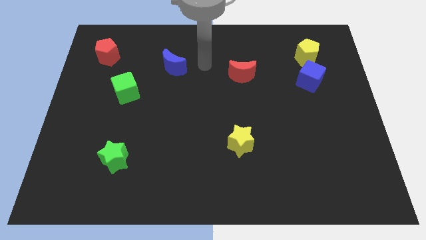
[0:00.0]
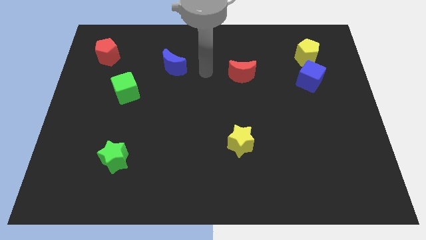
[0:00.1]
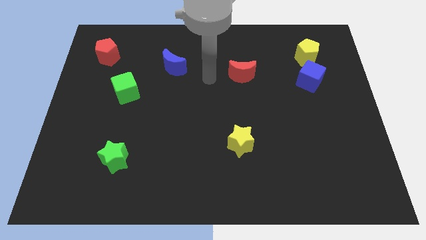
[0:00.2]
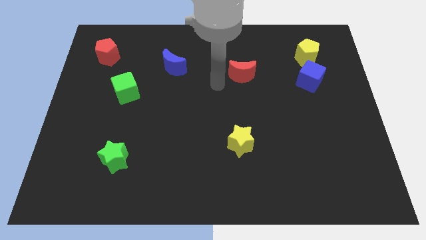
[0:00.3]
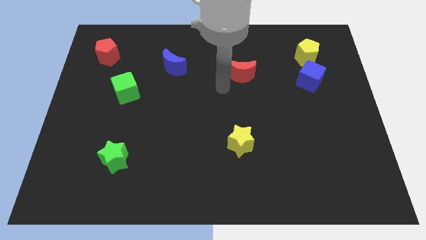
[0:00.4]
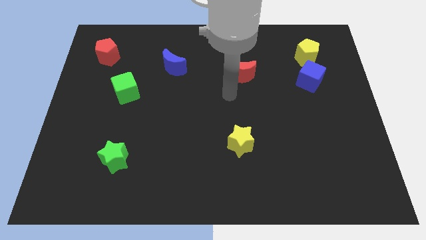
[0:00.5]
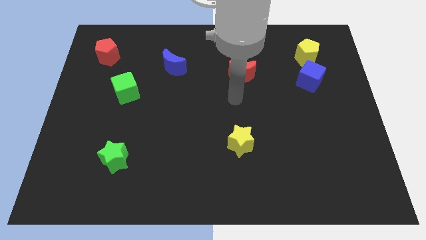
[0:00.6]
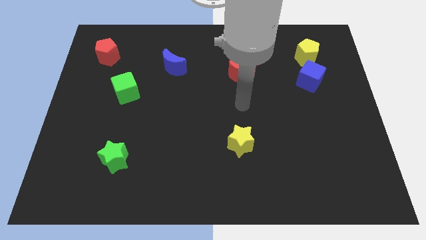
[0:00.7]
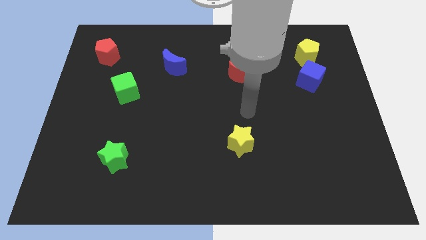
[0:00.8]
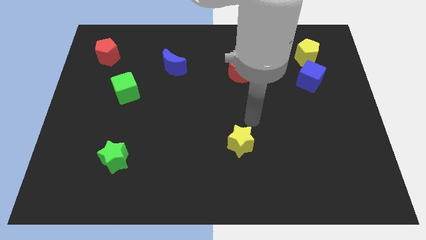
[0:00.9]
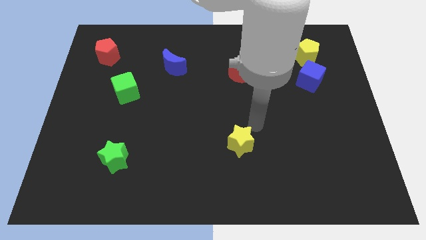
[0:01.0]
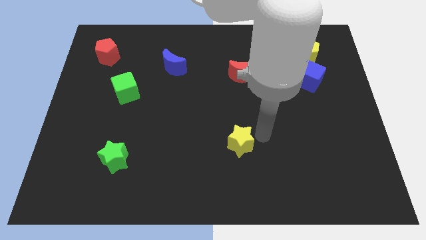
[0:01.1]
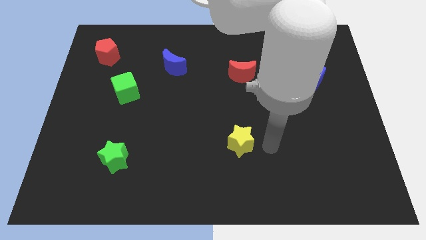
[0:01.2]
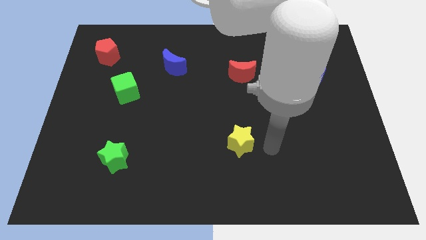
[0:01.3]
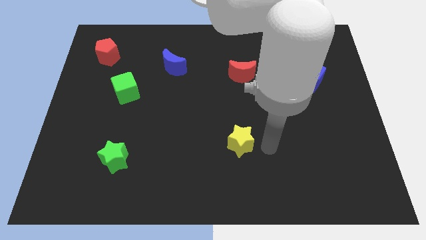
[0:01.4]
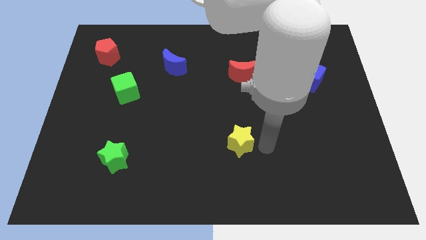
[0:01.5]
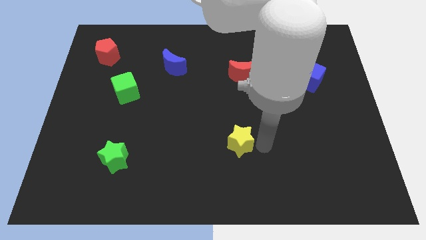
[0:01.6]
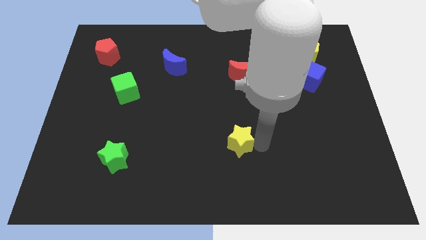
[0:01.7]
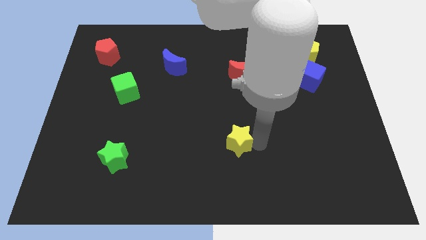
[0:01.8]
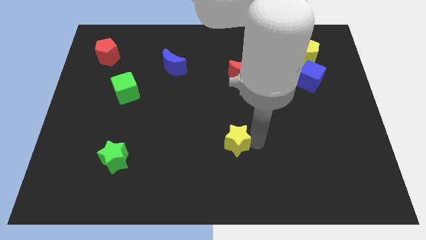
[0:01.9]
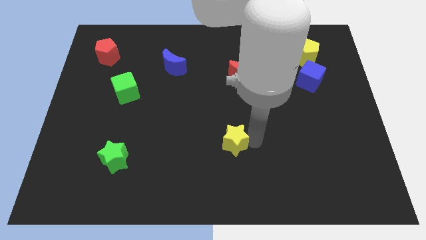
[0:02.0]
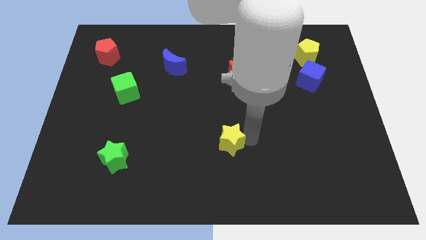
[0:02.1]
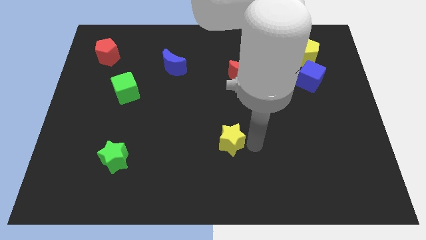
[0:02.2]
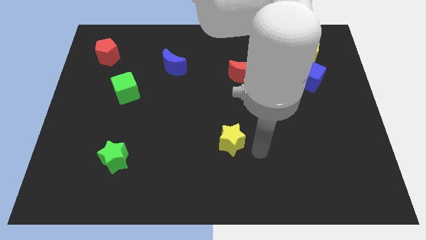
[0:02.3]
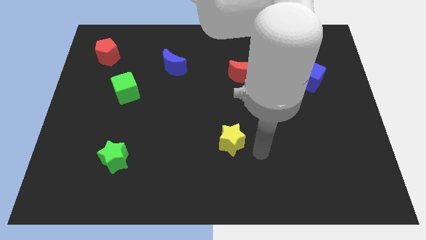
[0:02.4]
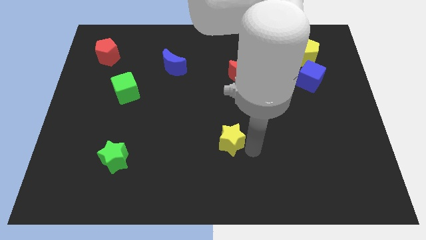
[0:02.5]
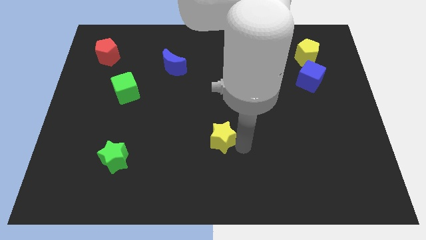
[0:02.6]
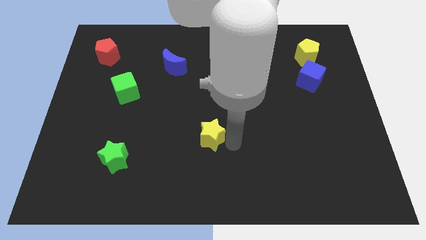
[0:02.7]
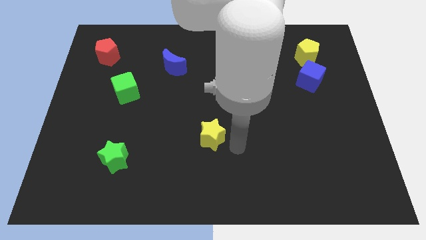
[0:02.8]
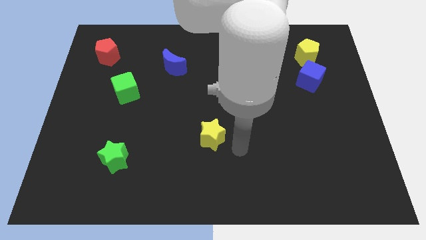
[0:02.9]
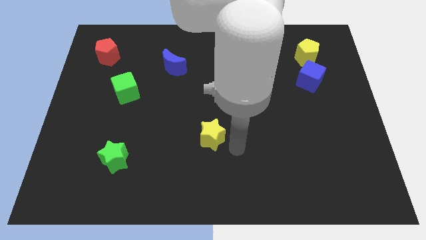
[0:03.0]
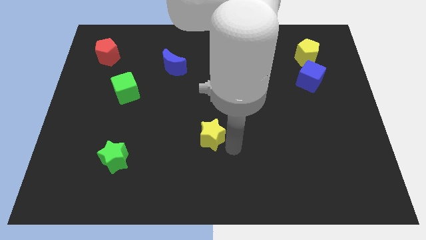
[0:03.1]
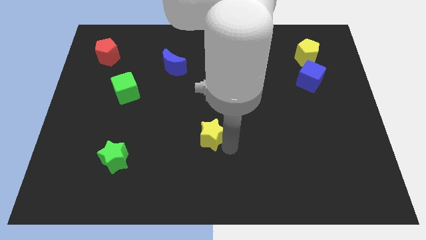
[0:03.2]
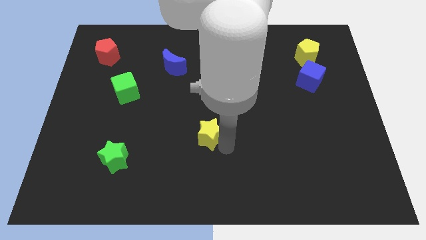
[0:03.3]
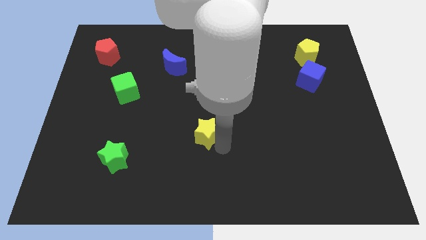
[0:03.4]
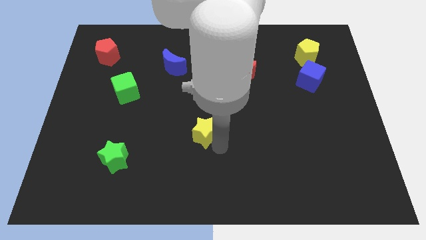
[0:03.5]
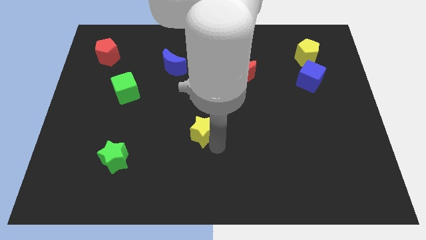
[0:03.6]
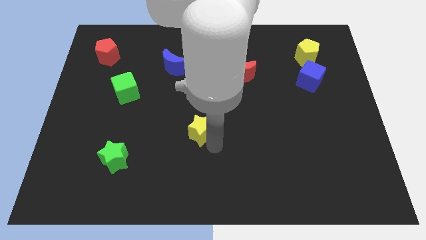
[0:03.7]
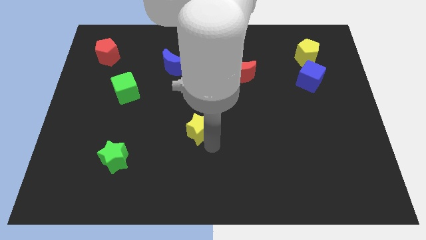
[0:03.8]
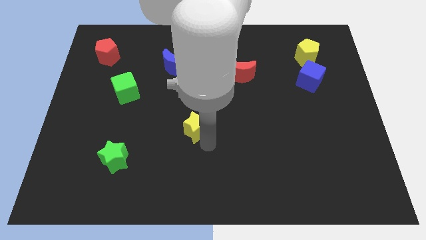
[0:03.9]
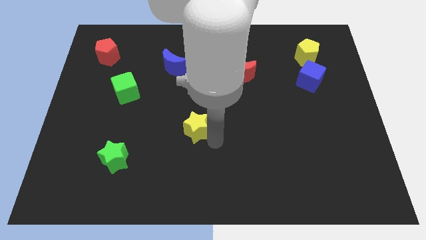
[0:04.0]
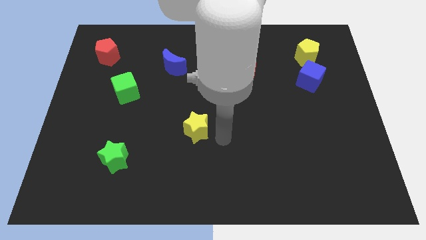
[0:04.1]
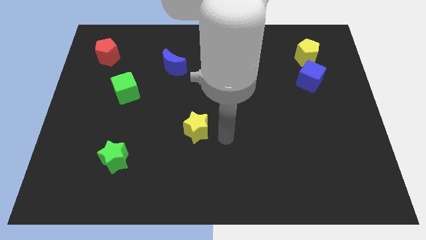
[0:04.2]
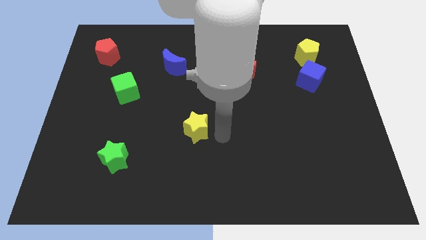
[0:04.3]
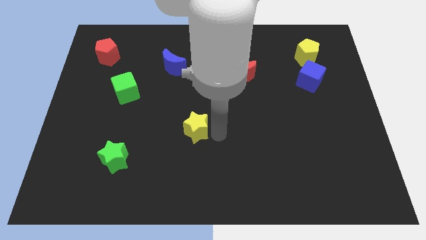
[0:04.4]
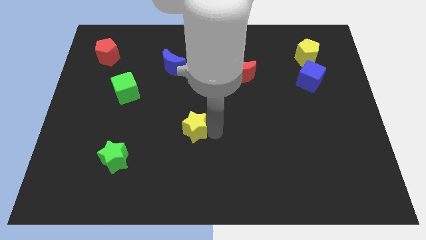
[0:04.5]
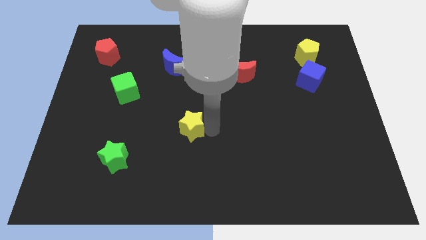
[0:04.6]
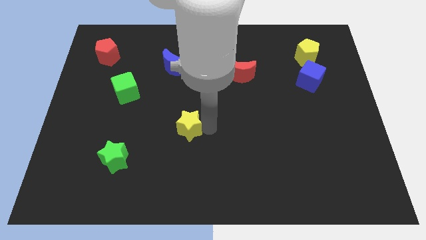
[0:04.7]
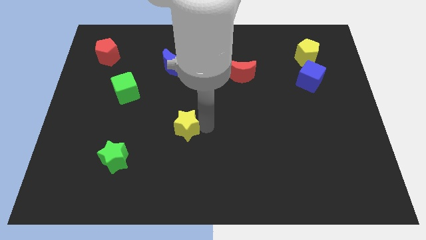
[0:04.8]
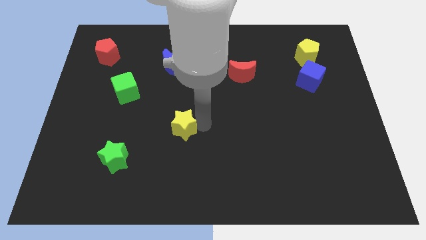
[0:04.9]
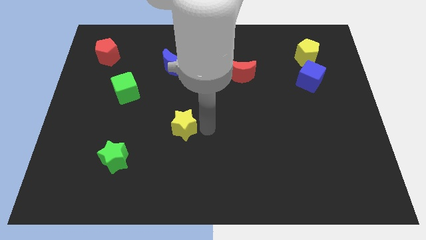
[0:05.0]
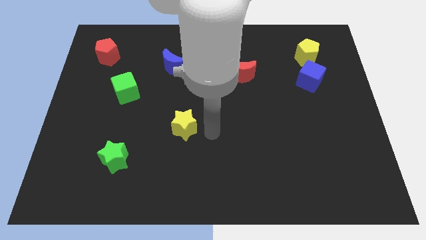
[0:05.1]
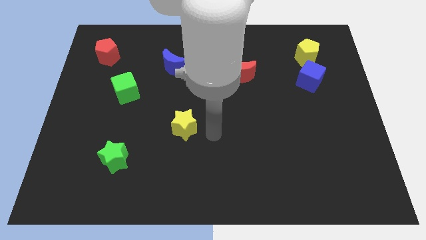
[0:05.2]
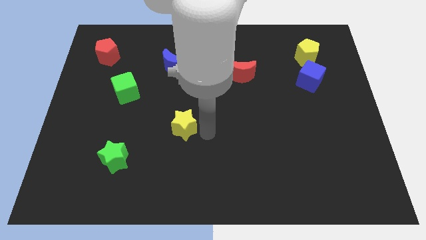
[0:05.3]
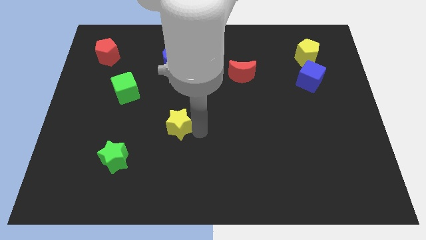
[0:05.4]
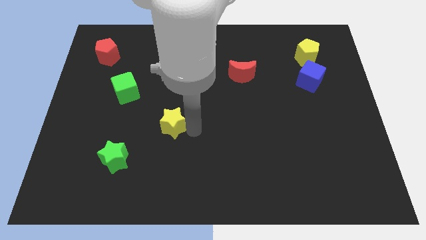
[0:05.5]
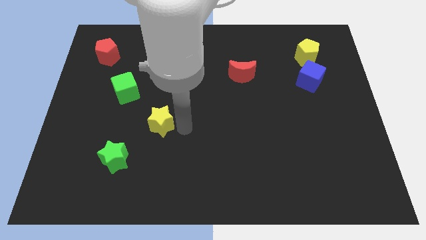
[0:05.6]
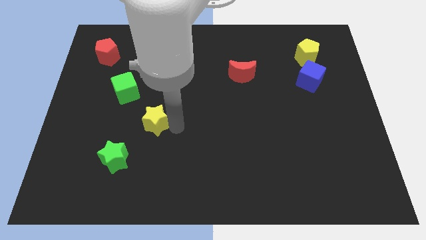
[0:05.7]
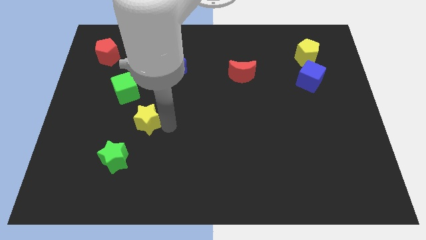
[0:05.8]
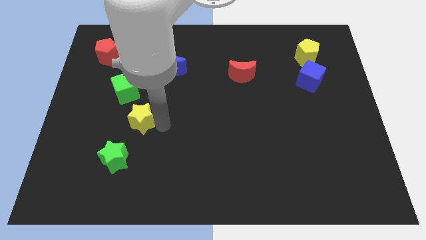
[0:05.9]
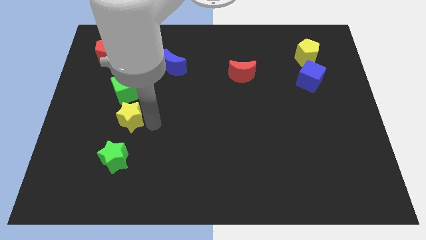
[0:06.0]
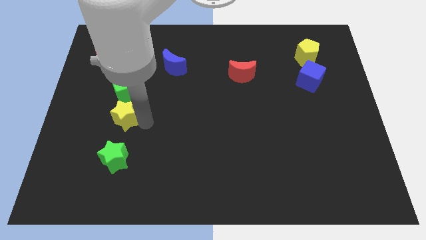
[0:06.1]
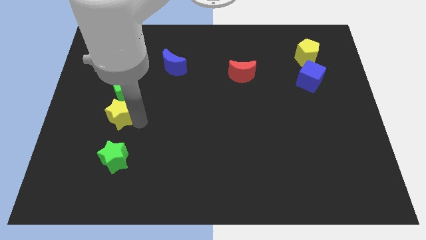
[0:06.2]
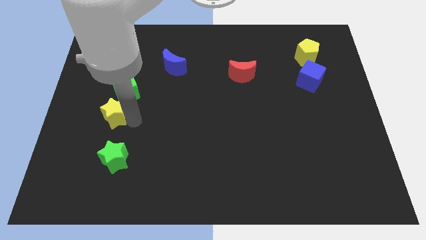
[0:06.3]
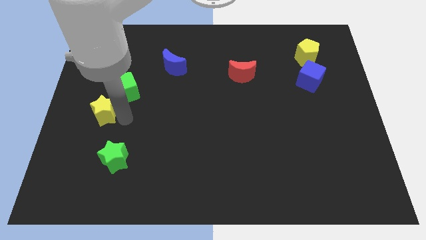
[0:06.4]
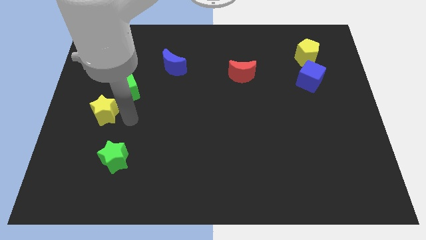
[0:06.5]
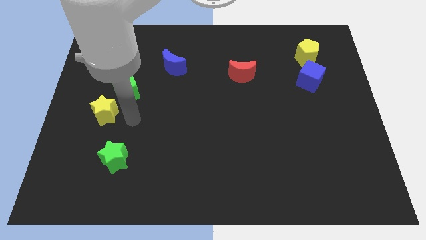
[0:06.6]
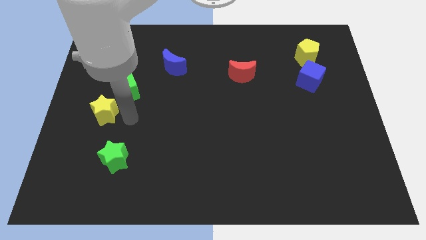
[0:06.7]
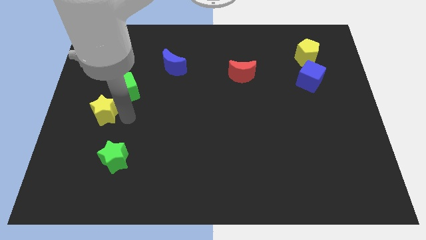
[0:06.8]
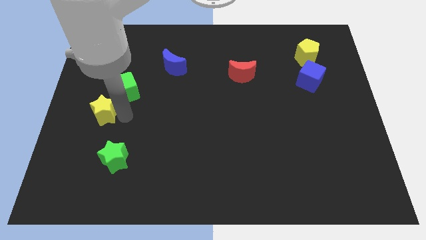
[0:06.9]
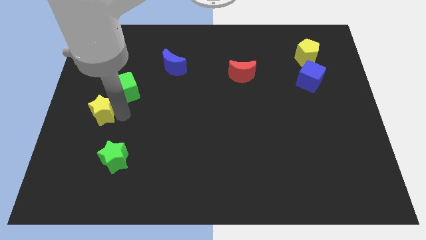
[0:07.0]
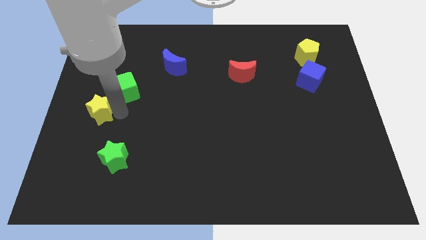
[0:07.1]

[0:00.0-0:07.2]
push the yellow star to the left side of the board
